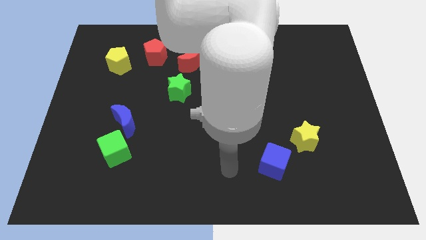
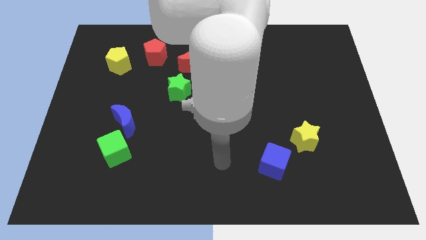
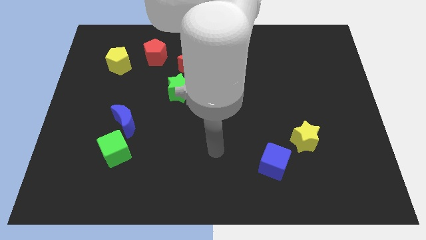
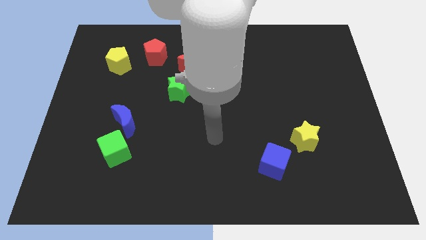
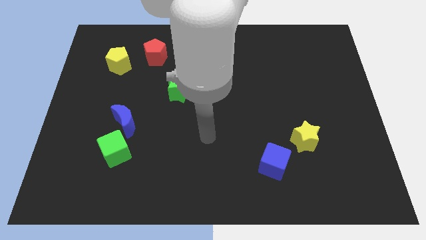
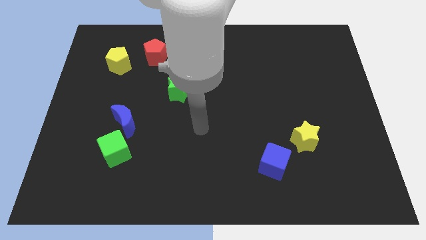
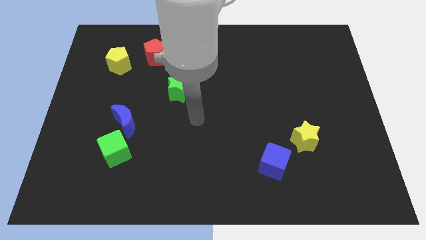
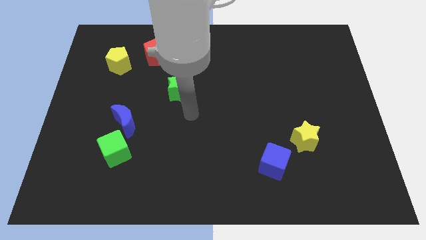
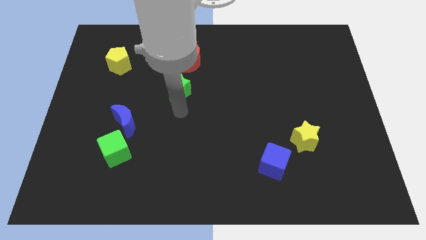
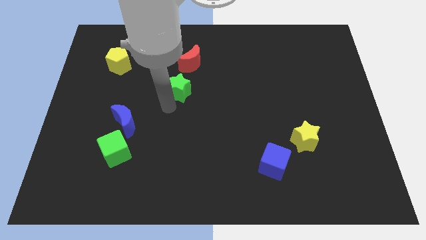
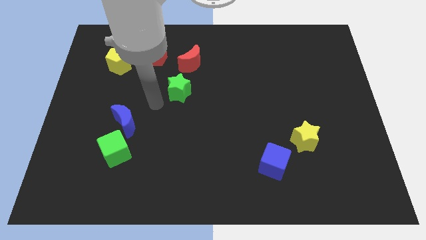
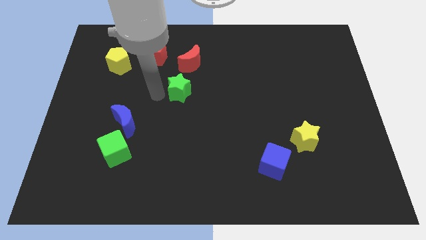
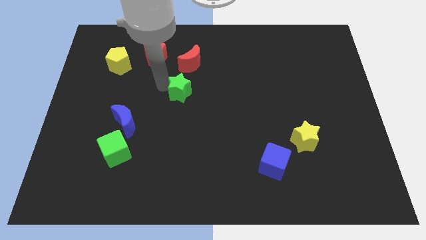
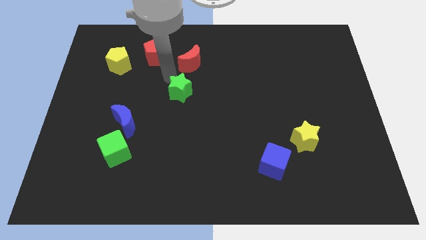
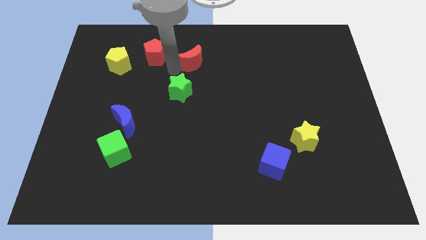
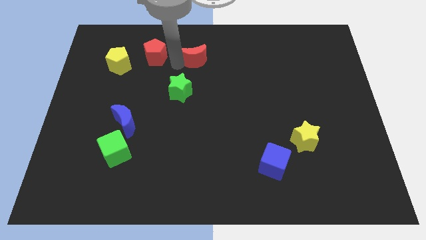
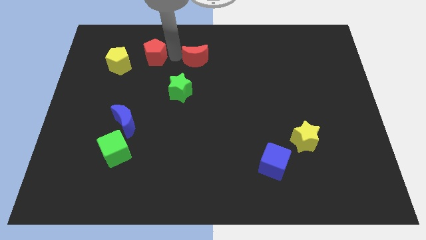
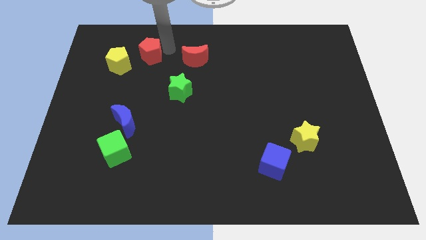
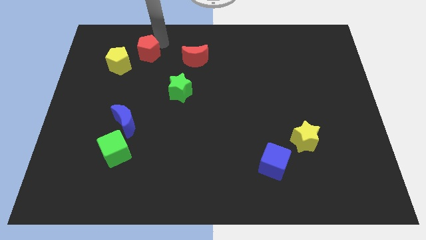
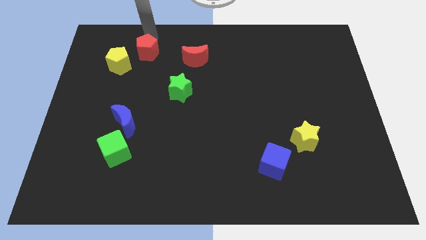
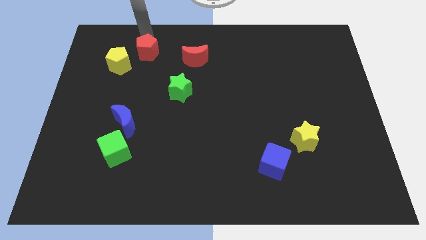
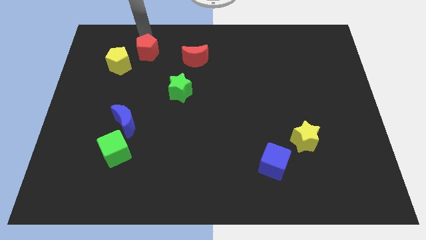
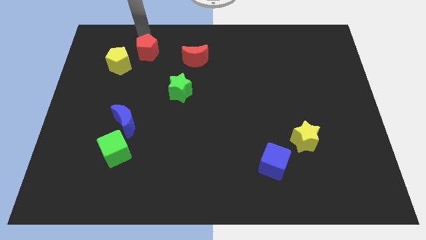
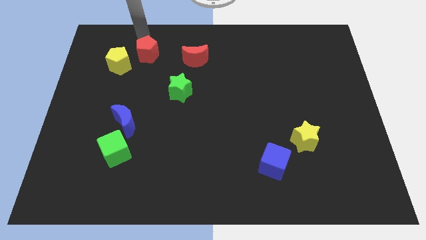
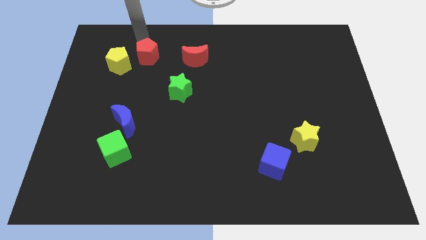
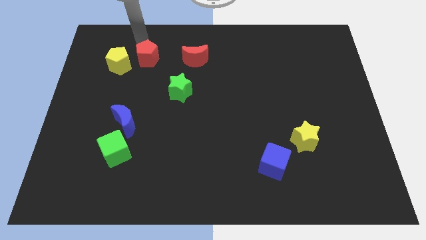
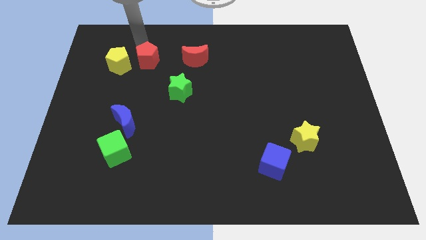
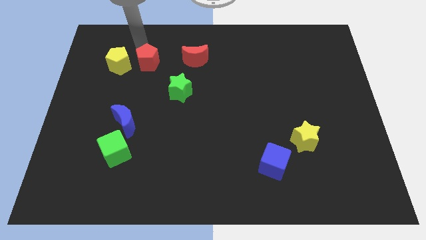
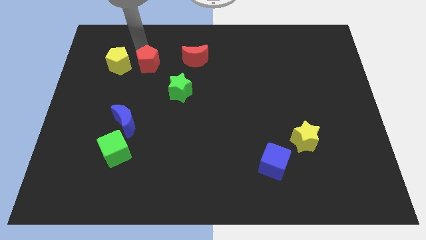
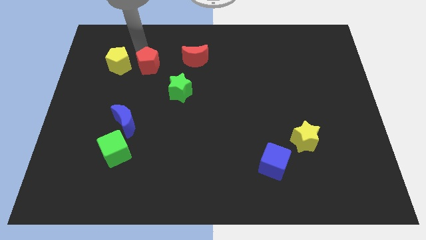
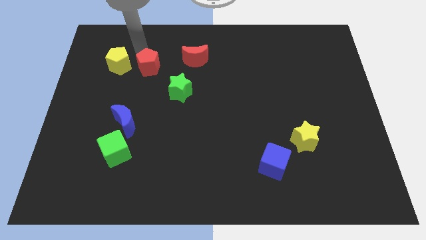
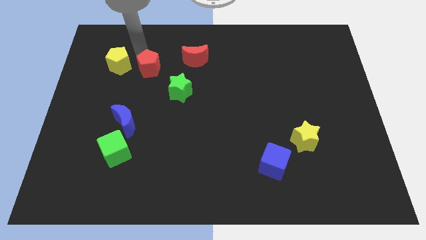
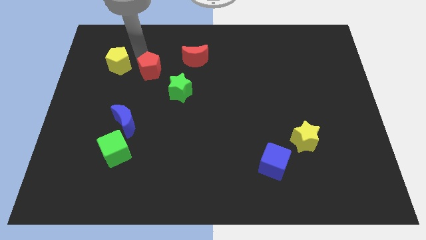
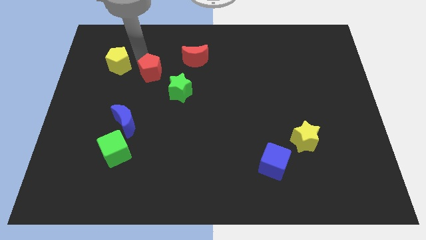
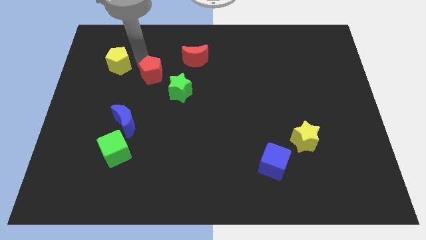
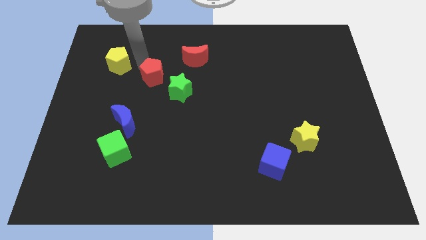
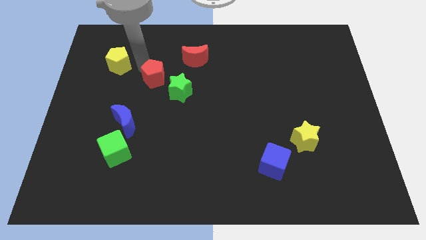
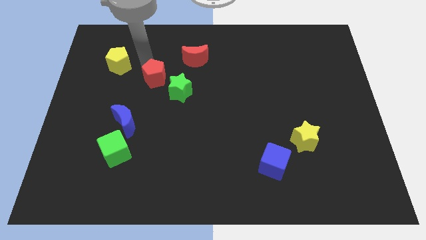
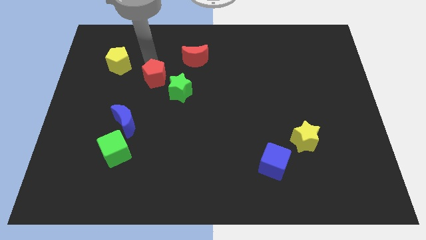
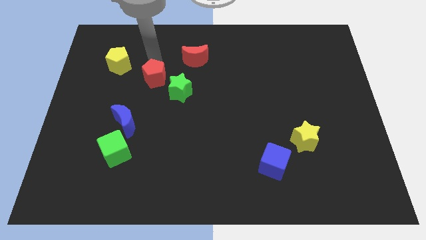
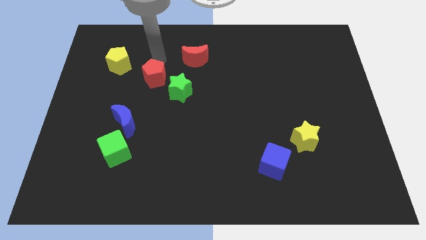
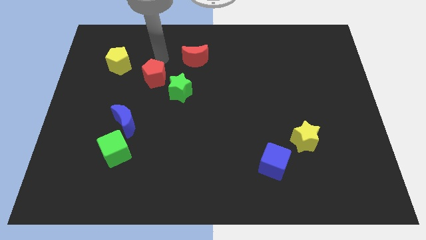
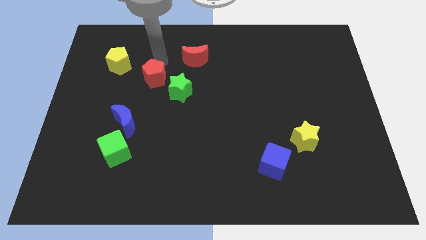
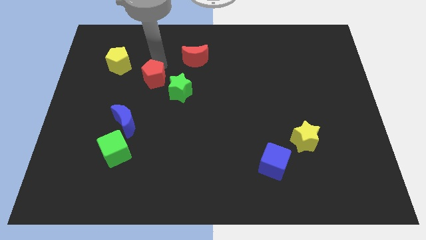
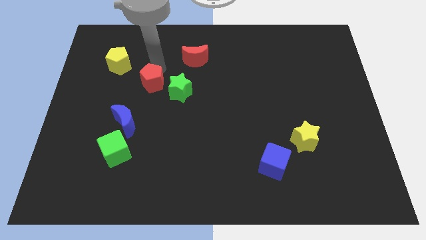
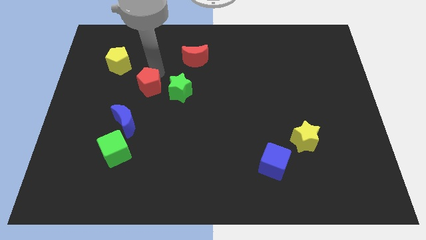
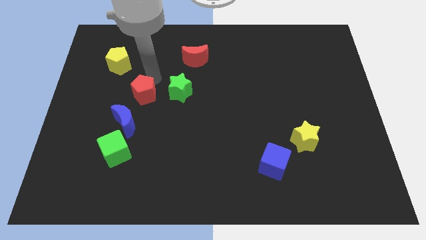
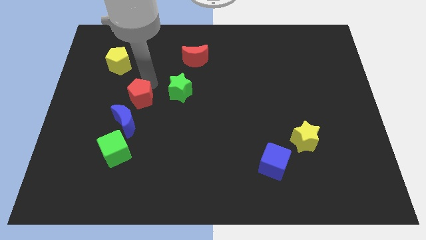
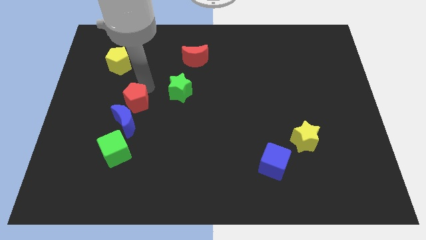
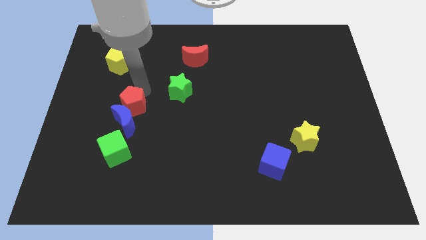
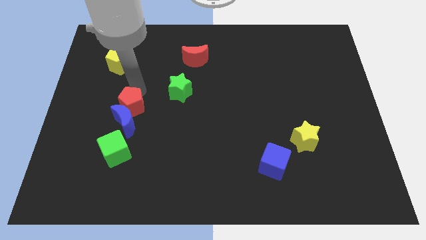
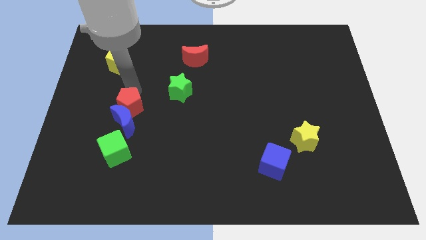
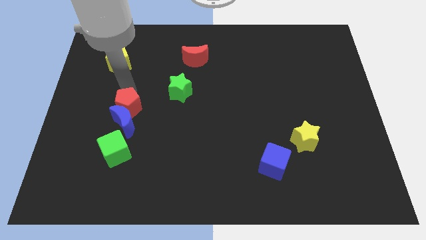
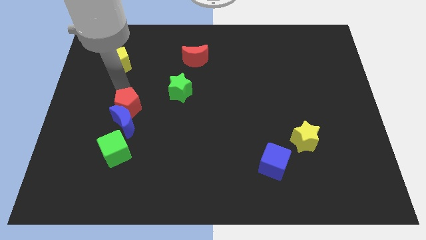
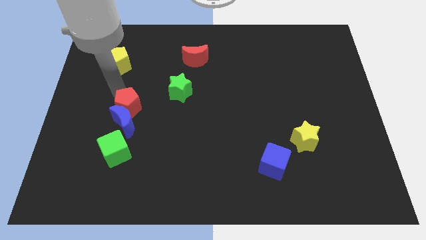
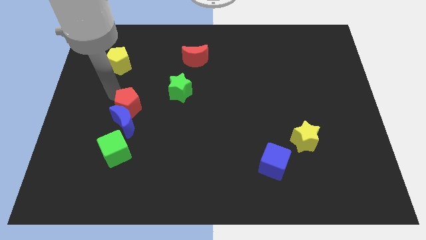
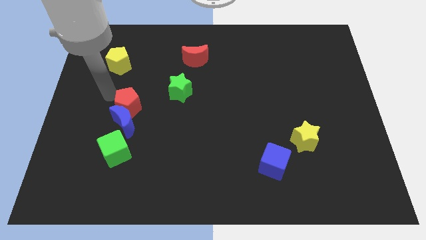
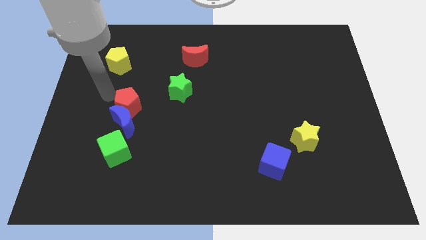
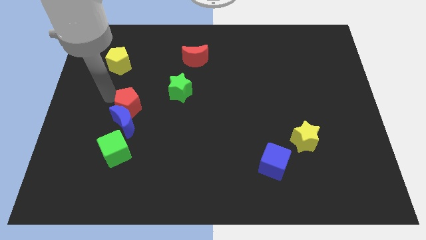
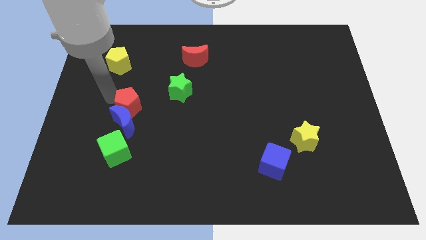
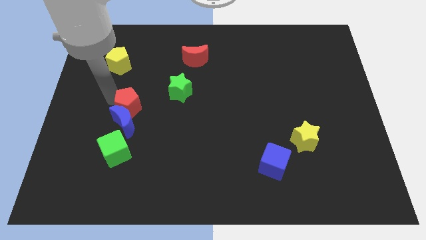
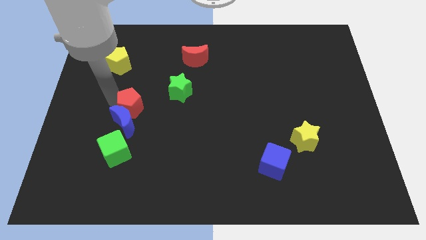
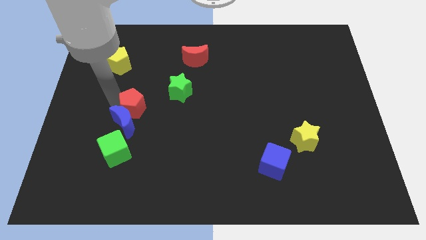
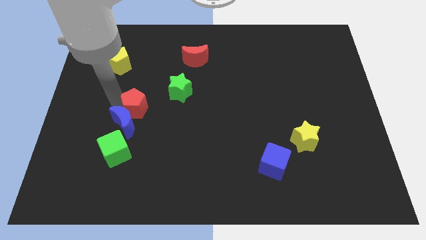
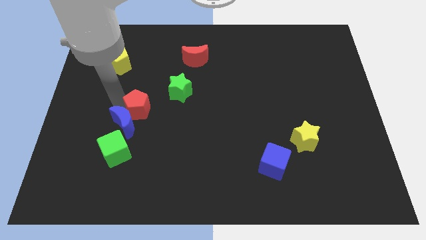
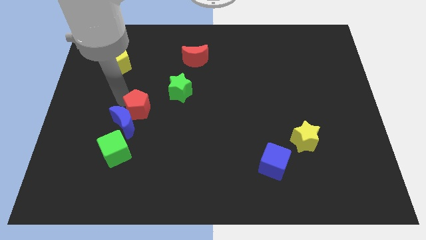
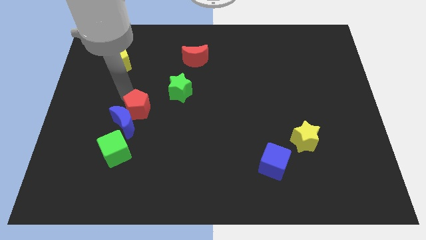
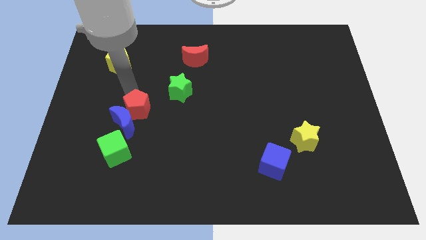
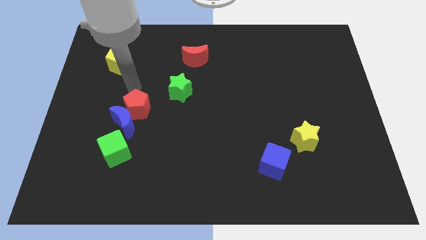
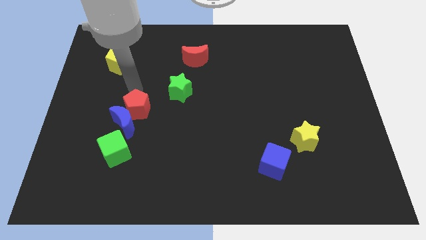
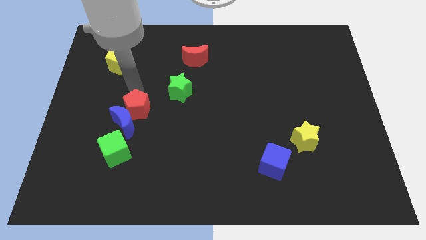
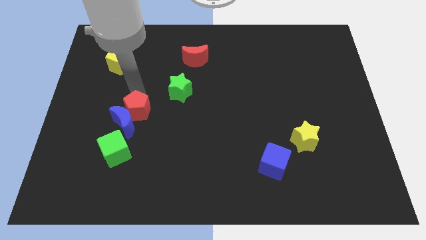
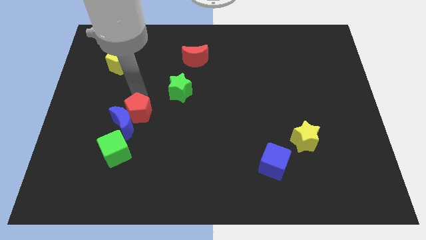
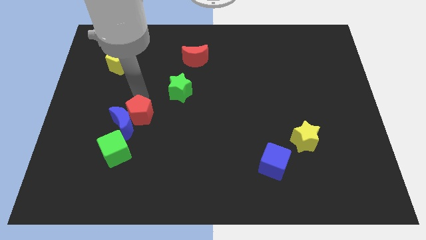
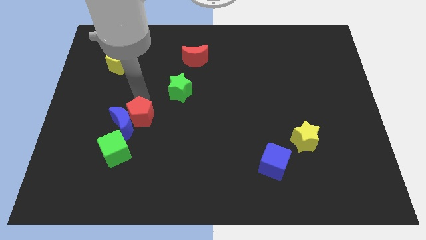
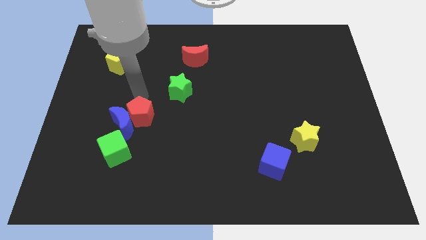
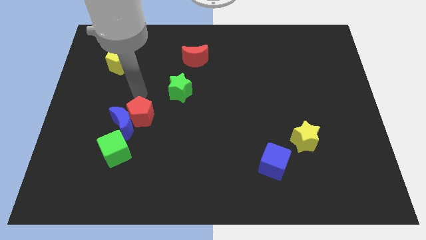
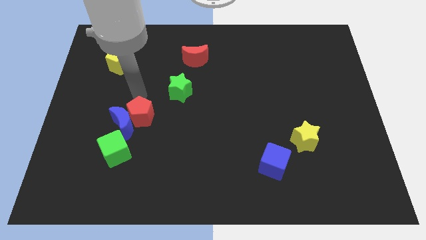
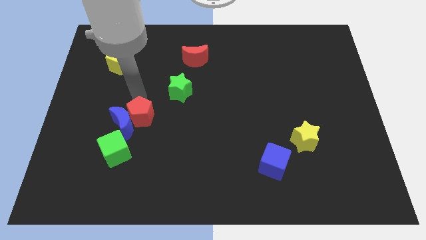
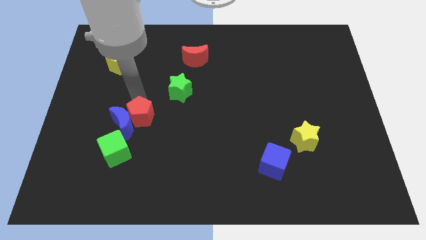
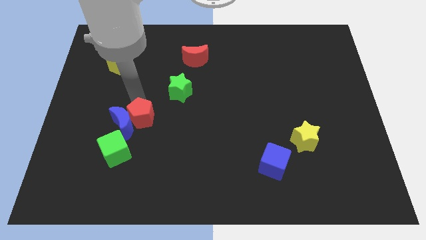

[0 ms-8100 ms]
push the red pentagon down

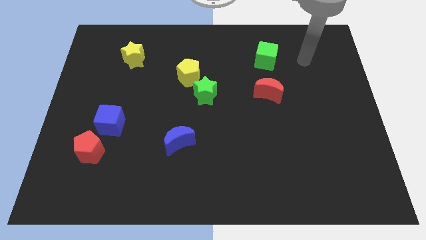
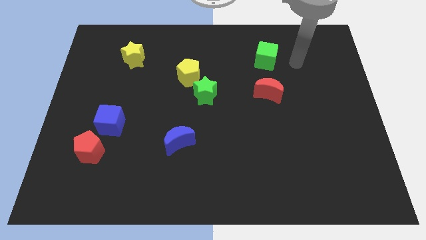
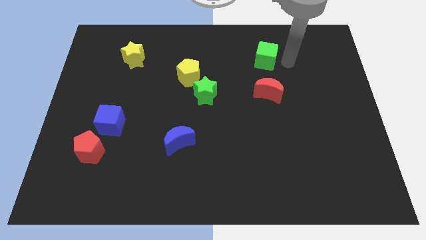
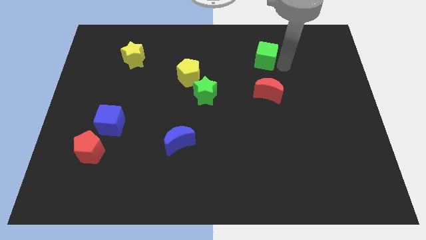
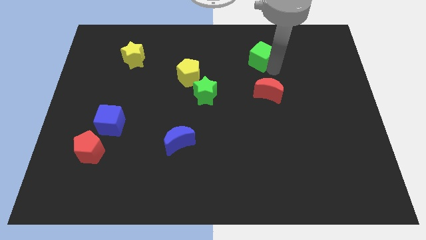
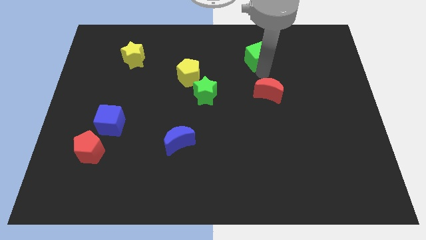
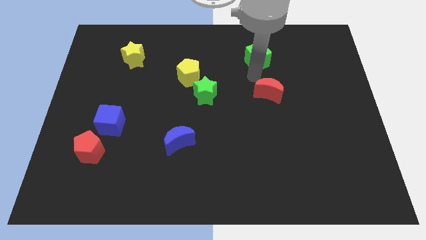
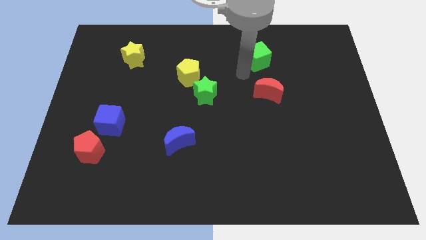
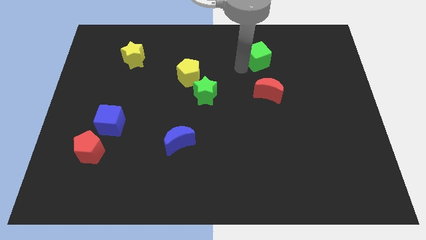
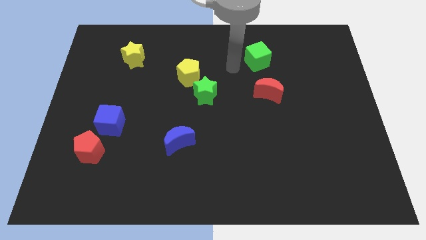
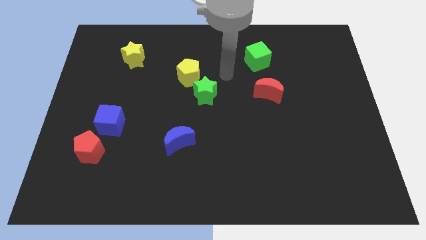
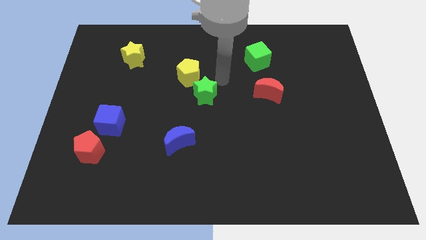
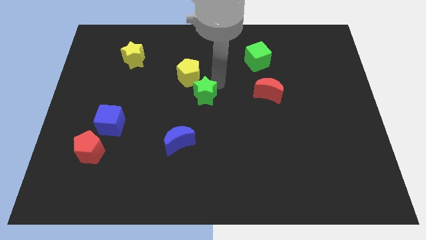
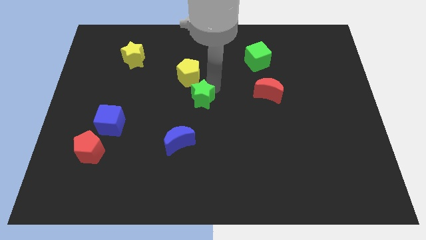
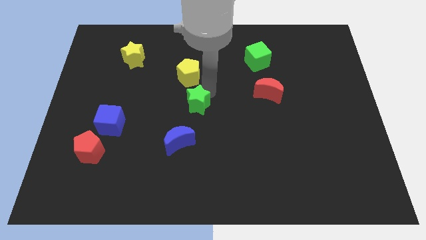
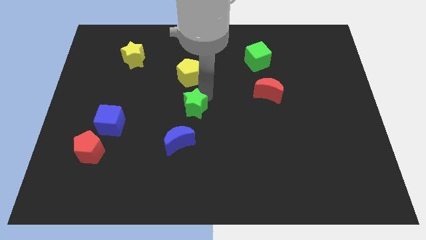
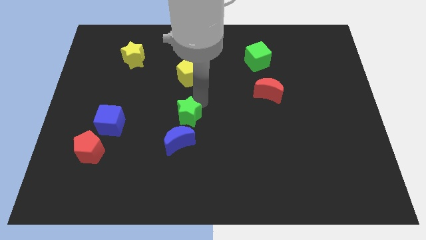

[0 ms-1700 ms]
move the green star diagonally down and to the left a little bit
